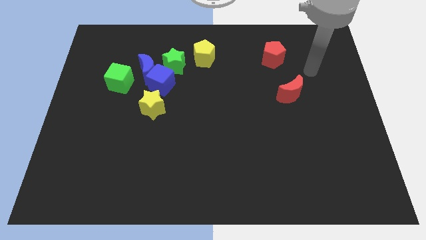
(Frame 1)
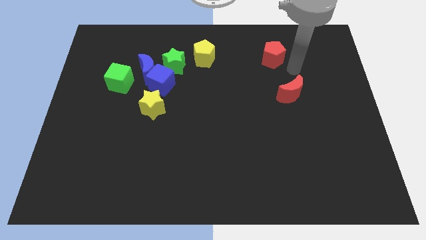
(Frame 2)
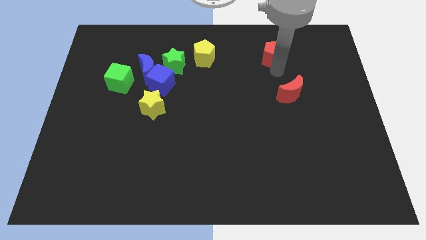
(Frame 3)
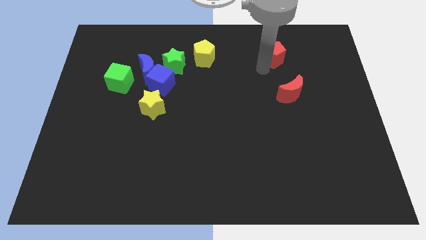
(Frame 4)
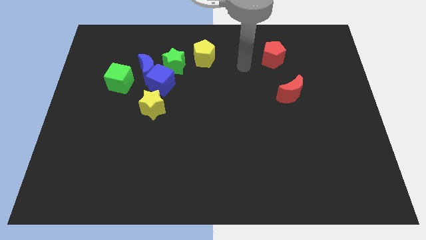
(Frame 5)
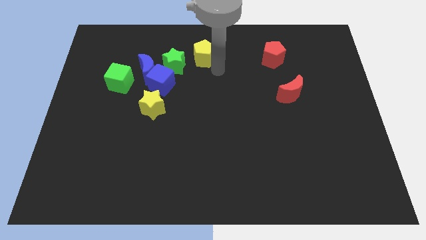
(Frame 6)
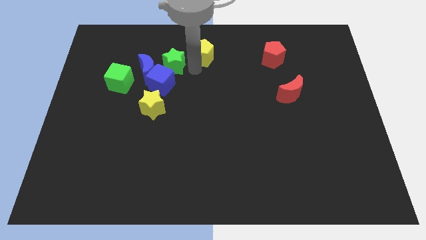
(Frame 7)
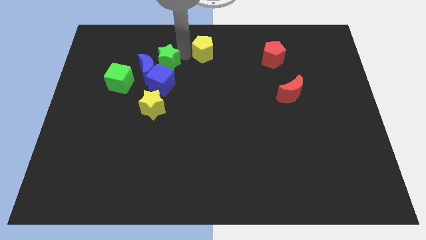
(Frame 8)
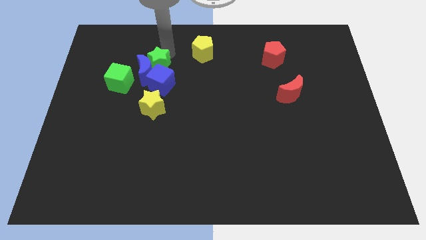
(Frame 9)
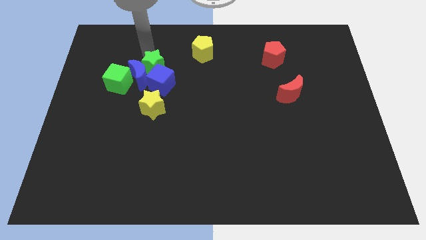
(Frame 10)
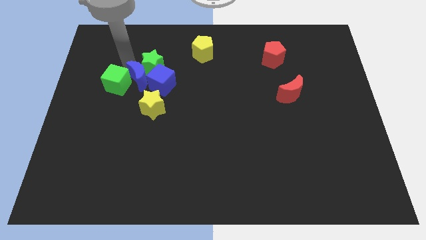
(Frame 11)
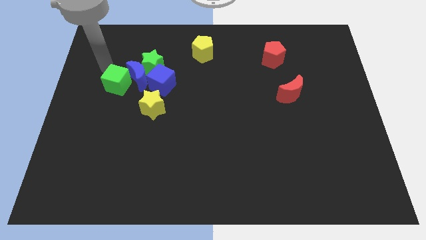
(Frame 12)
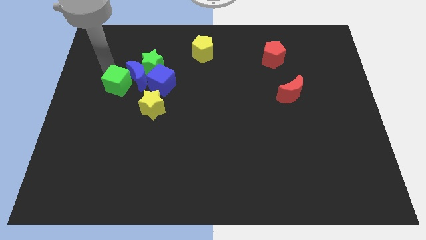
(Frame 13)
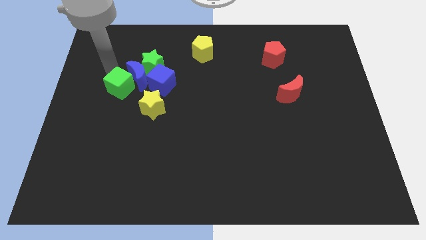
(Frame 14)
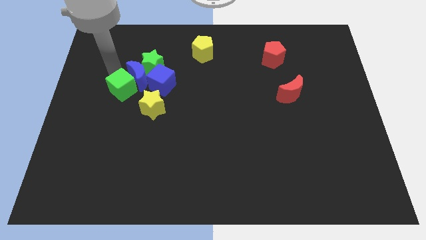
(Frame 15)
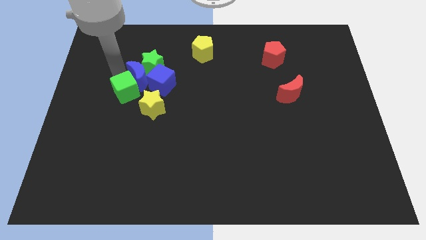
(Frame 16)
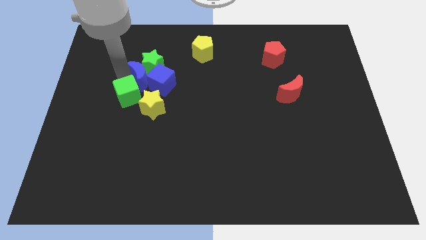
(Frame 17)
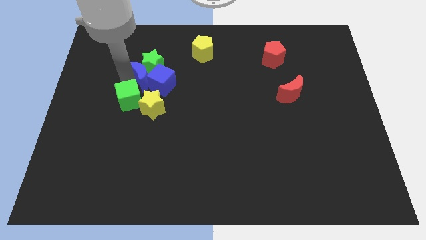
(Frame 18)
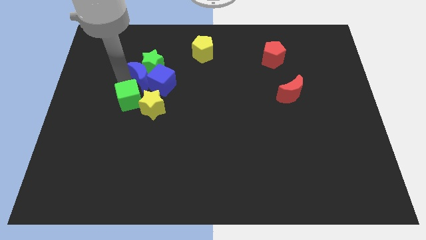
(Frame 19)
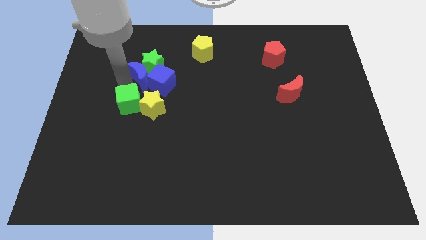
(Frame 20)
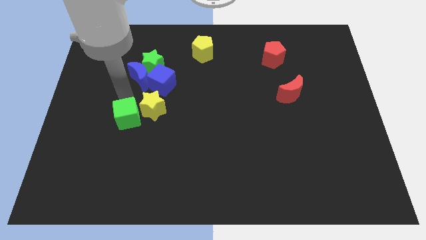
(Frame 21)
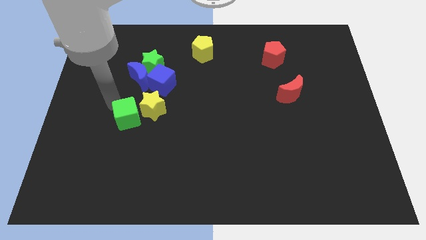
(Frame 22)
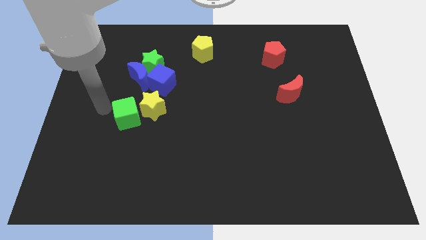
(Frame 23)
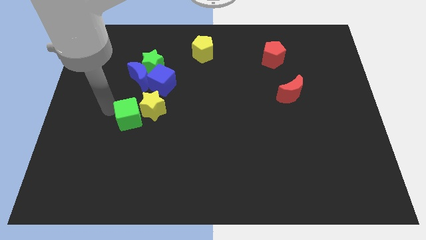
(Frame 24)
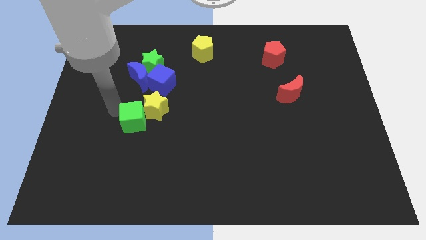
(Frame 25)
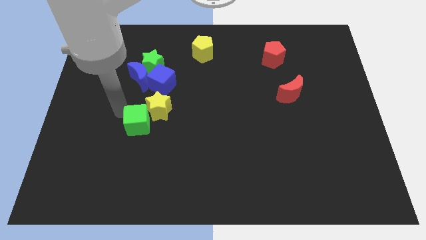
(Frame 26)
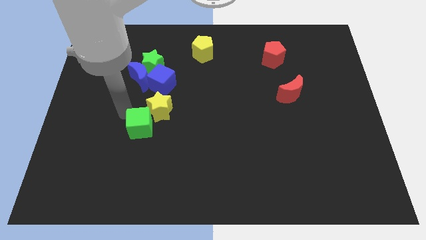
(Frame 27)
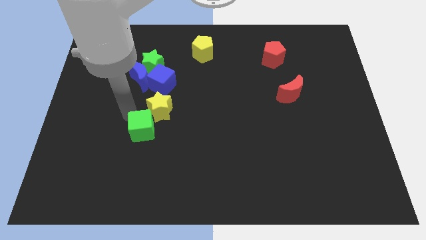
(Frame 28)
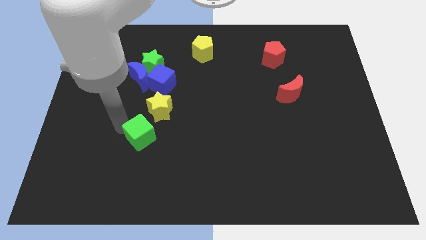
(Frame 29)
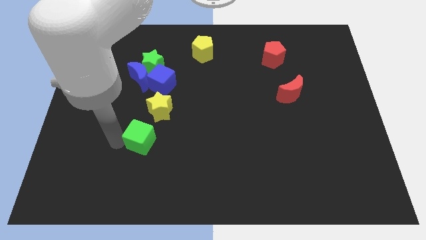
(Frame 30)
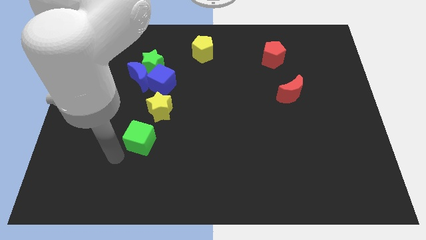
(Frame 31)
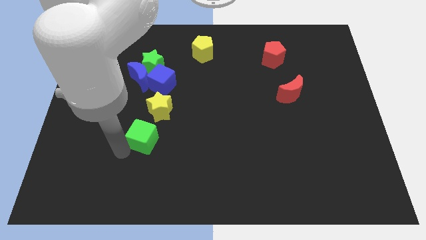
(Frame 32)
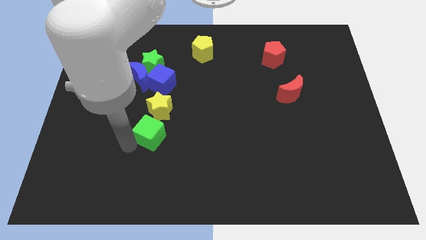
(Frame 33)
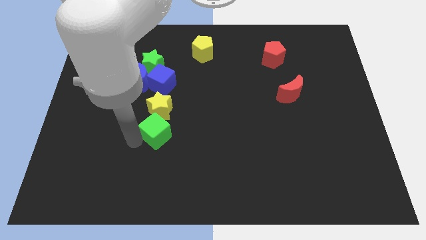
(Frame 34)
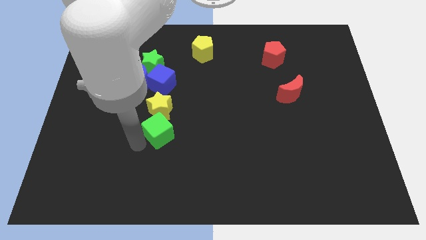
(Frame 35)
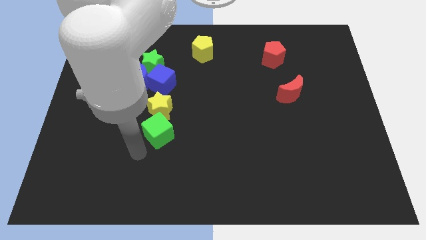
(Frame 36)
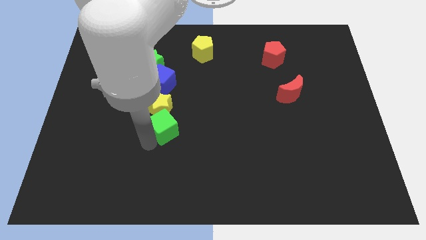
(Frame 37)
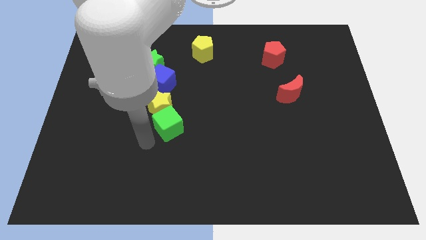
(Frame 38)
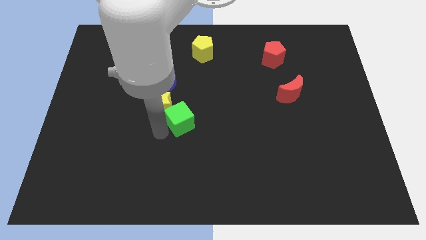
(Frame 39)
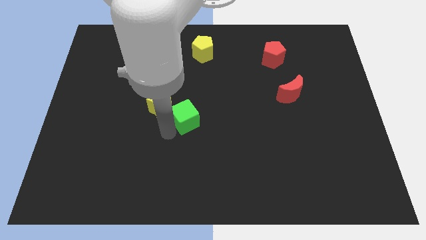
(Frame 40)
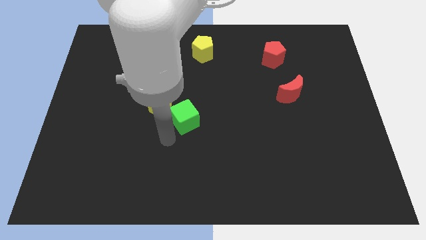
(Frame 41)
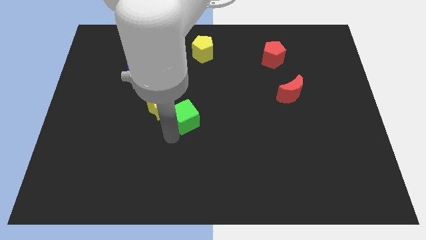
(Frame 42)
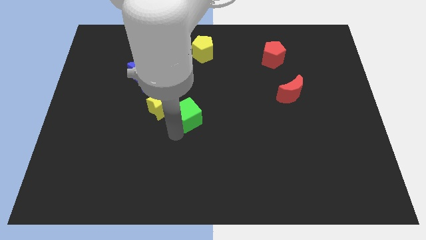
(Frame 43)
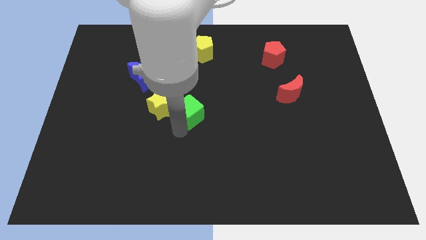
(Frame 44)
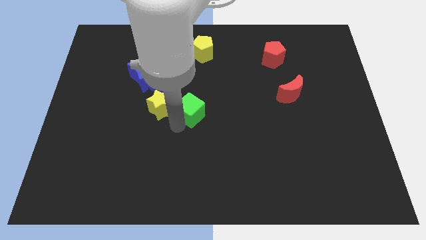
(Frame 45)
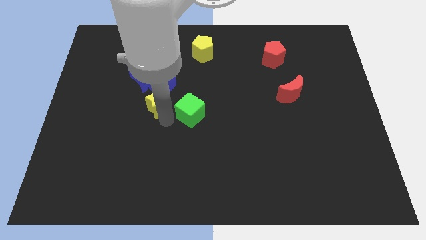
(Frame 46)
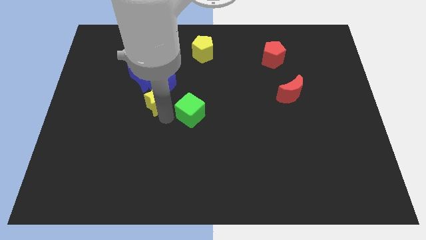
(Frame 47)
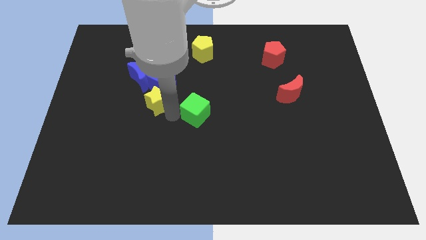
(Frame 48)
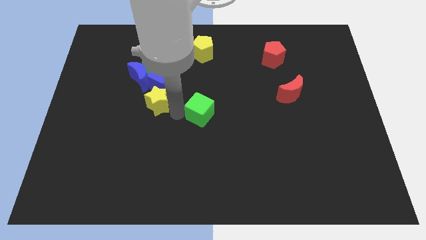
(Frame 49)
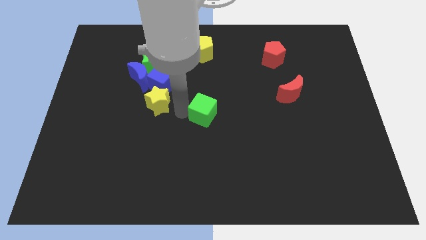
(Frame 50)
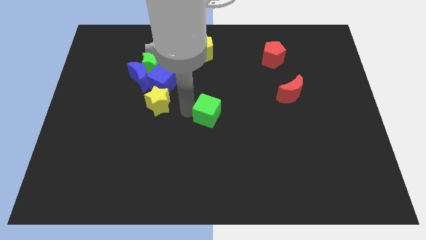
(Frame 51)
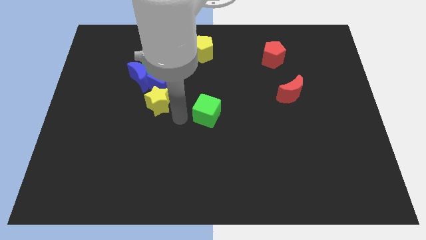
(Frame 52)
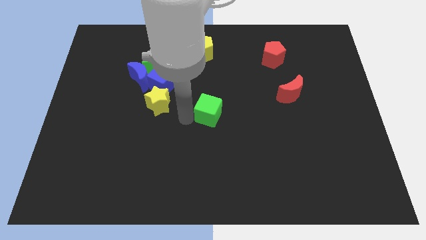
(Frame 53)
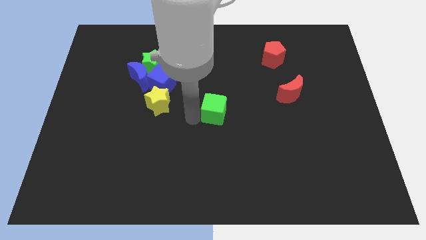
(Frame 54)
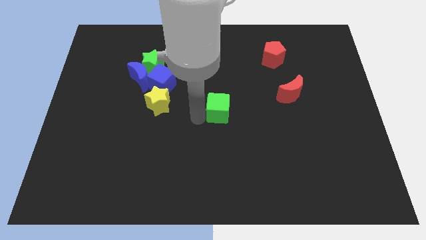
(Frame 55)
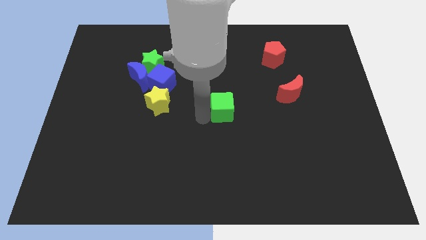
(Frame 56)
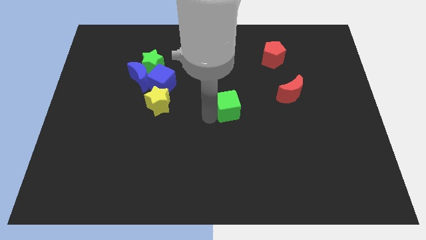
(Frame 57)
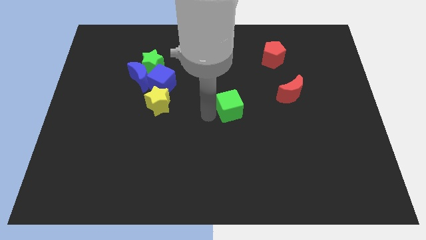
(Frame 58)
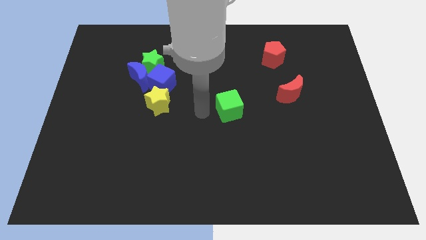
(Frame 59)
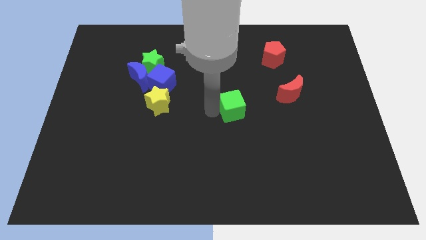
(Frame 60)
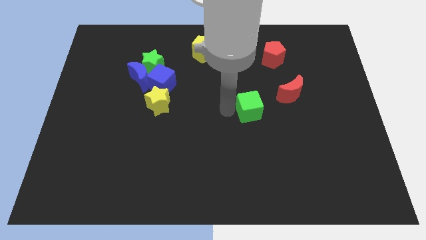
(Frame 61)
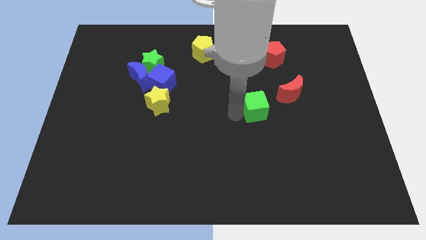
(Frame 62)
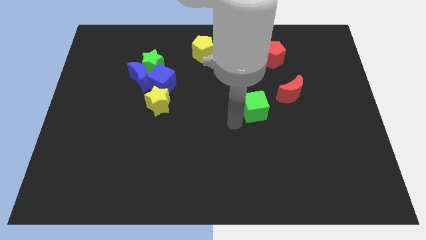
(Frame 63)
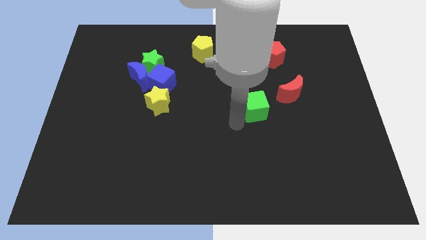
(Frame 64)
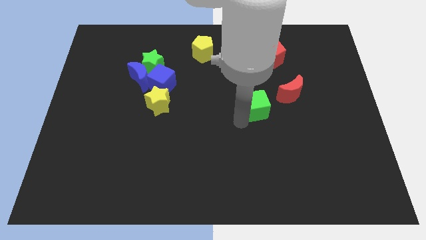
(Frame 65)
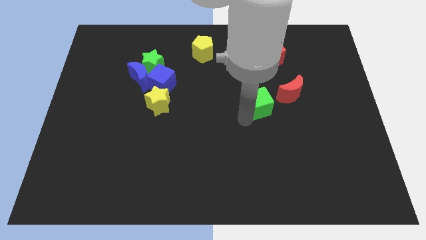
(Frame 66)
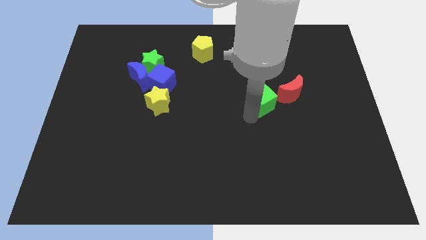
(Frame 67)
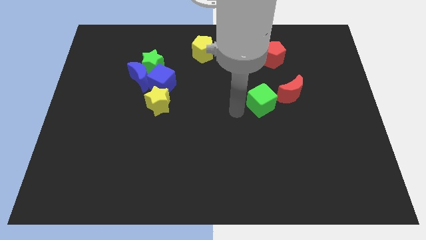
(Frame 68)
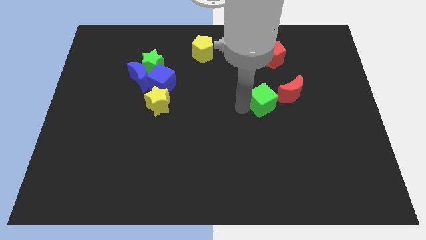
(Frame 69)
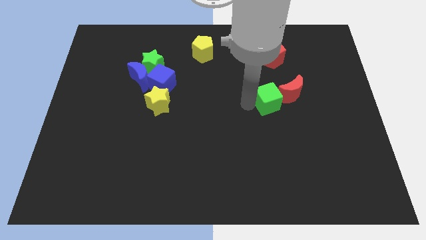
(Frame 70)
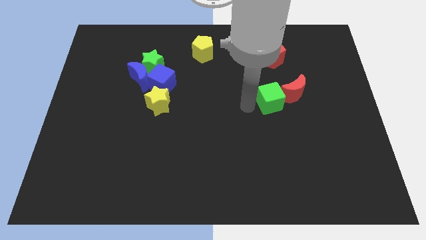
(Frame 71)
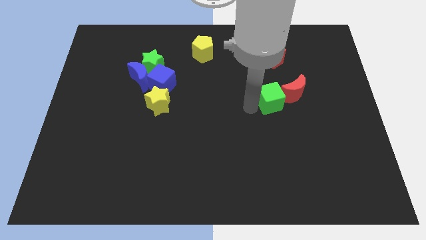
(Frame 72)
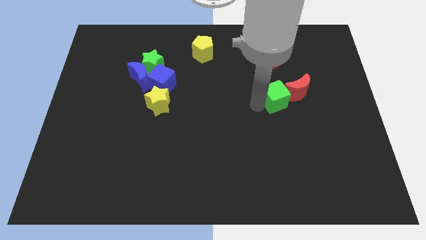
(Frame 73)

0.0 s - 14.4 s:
push the green cube to the red moon

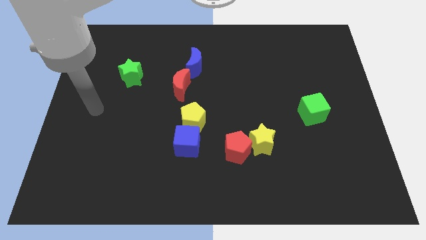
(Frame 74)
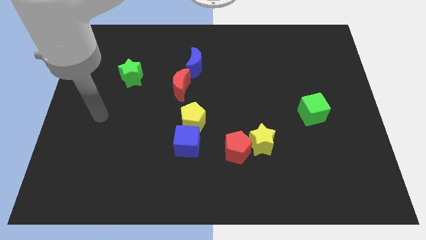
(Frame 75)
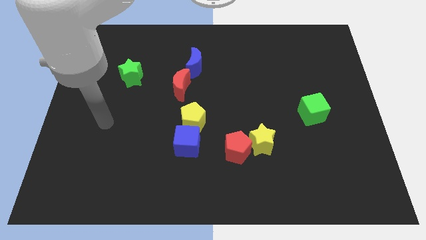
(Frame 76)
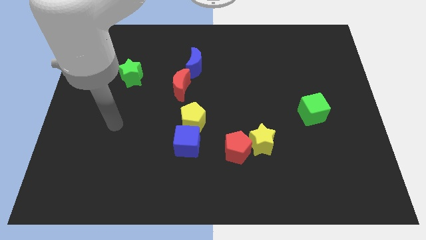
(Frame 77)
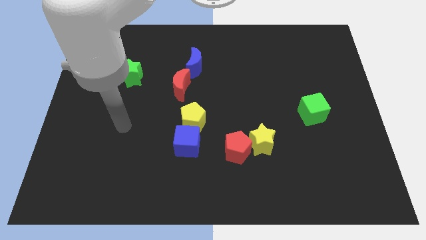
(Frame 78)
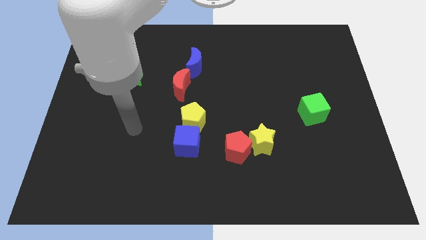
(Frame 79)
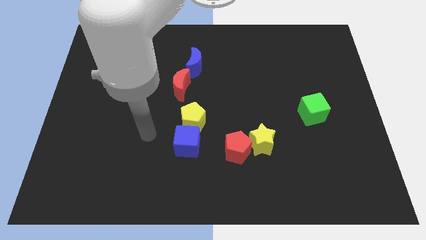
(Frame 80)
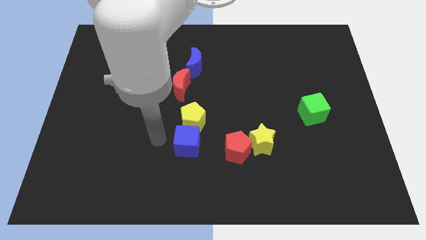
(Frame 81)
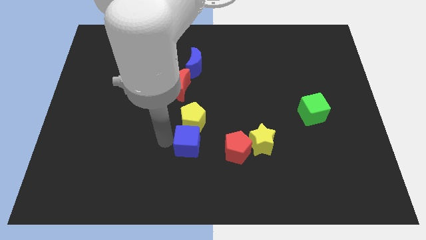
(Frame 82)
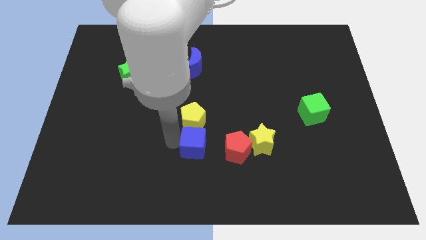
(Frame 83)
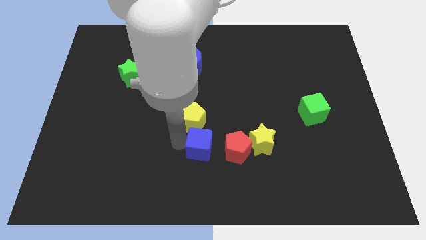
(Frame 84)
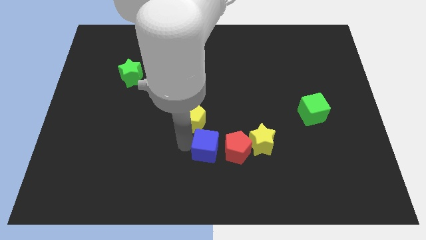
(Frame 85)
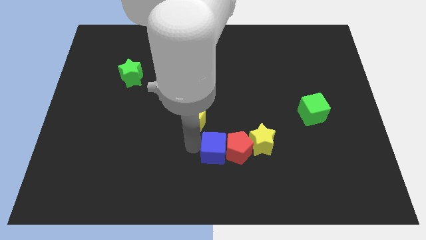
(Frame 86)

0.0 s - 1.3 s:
slide the blue cube to the red pentagon
